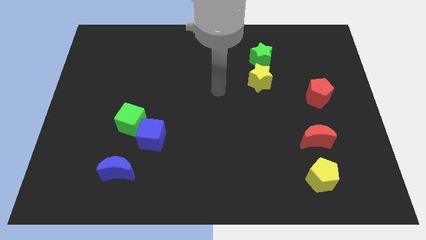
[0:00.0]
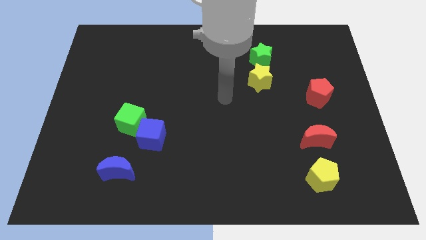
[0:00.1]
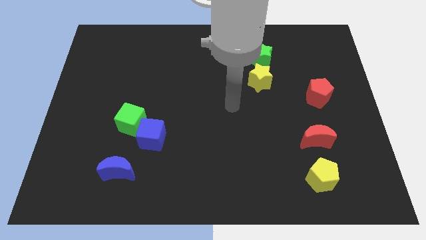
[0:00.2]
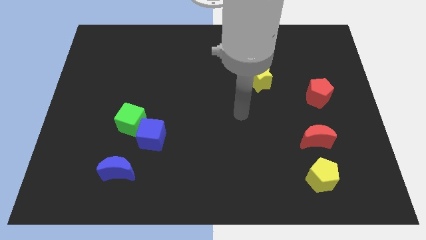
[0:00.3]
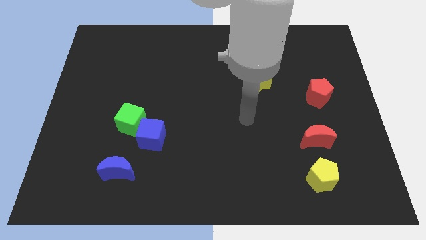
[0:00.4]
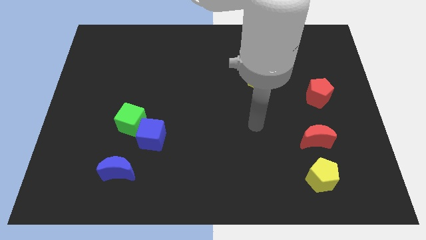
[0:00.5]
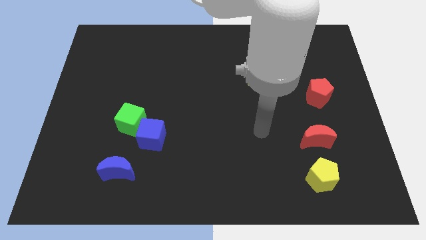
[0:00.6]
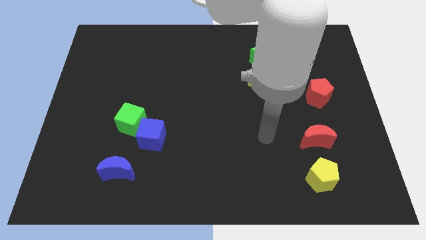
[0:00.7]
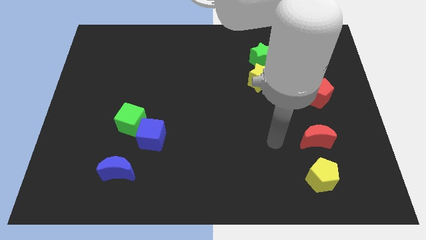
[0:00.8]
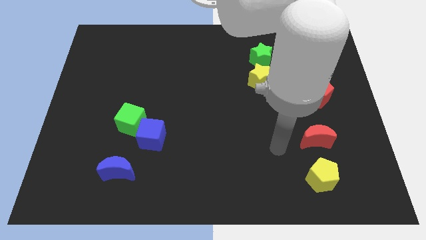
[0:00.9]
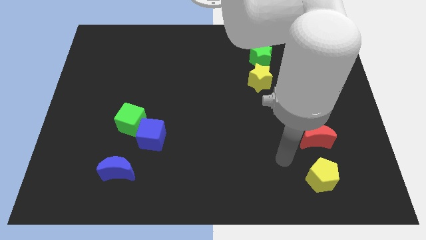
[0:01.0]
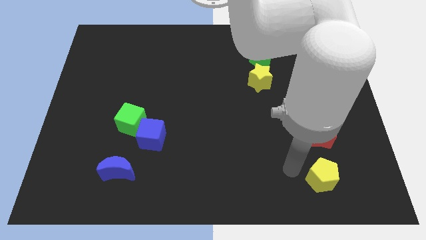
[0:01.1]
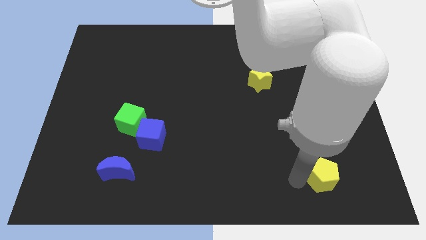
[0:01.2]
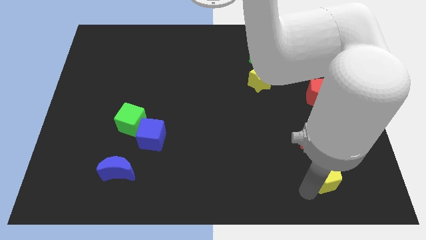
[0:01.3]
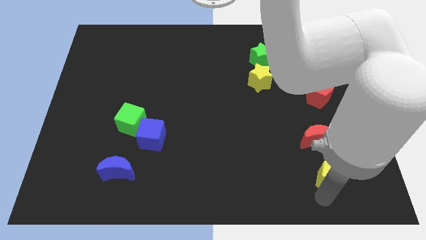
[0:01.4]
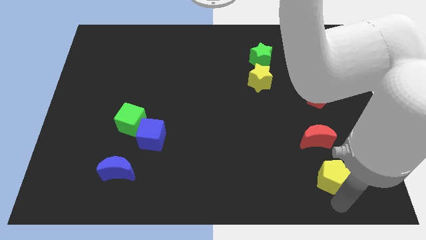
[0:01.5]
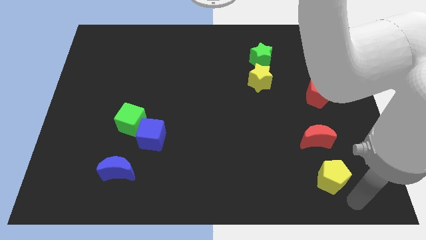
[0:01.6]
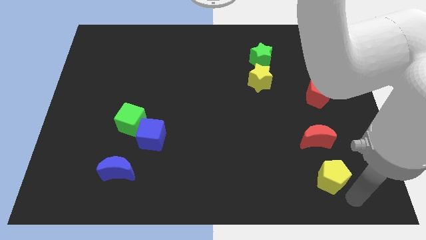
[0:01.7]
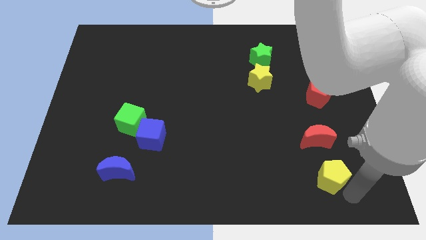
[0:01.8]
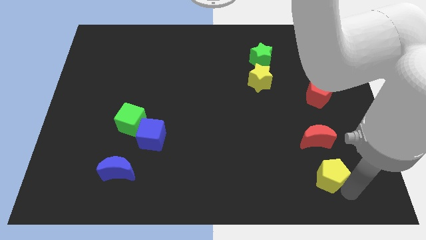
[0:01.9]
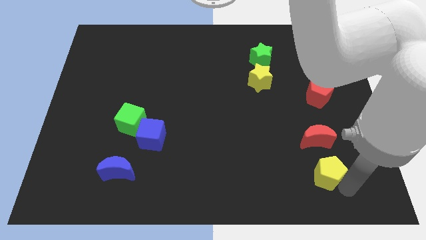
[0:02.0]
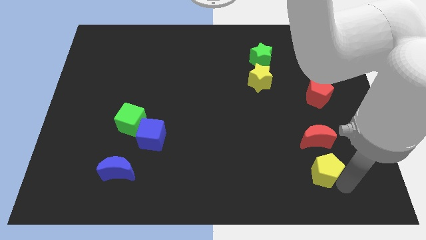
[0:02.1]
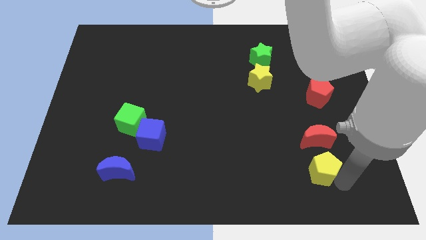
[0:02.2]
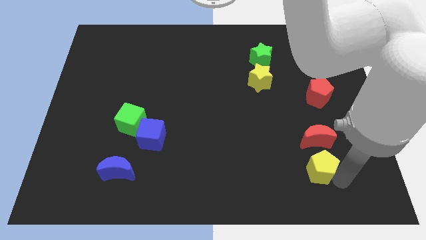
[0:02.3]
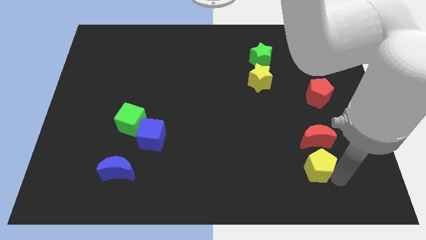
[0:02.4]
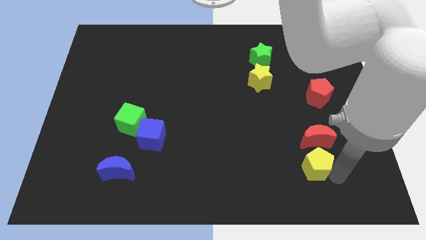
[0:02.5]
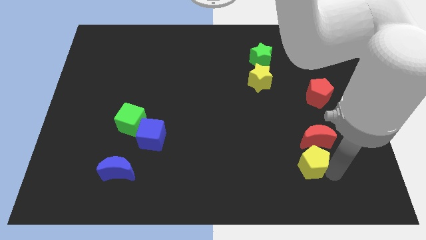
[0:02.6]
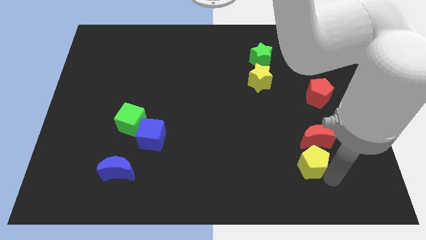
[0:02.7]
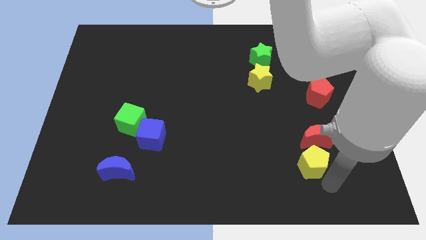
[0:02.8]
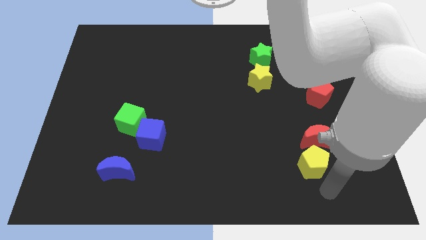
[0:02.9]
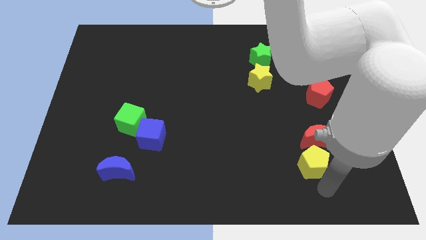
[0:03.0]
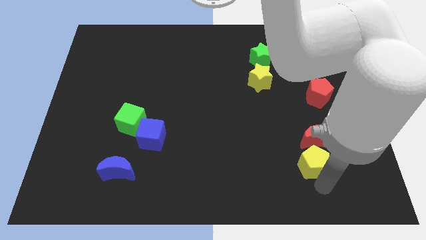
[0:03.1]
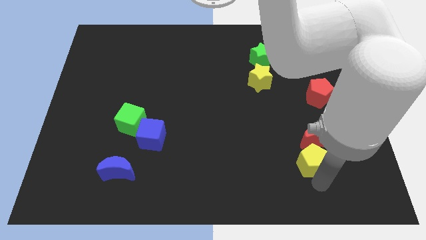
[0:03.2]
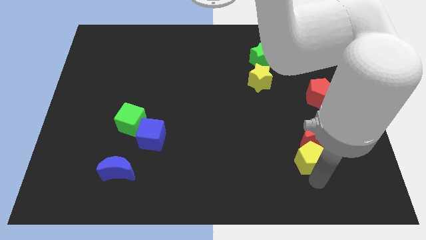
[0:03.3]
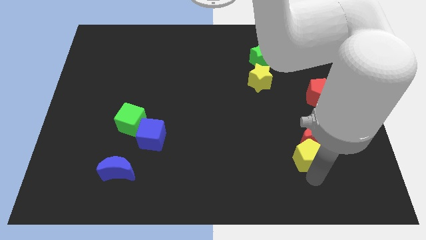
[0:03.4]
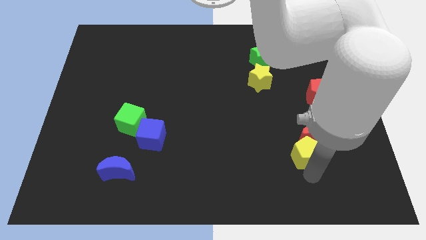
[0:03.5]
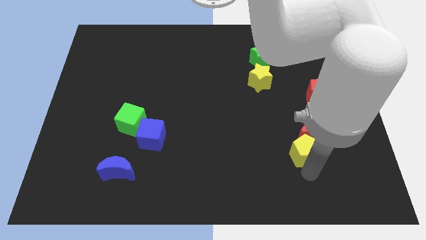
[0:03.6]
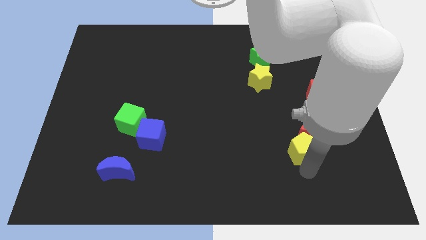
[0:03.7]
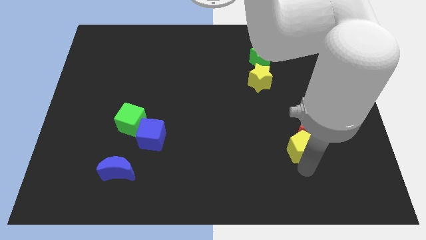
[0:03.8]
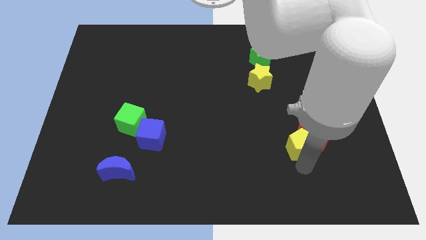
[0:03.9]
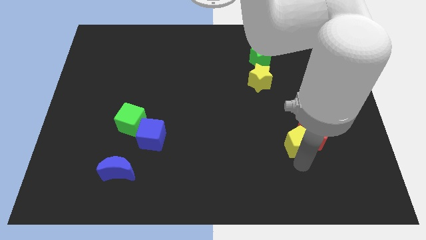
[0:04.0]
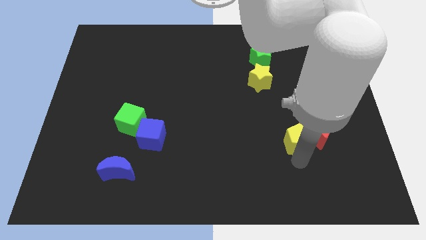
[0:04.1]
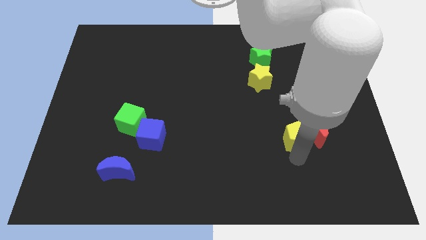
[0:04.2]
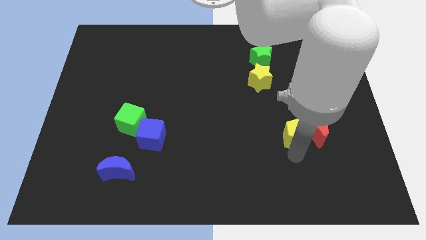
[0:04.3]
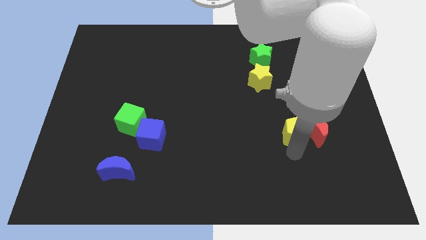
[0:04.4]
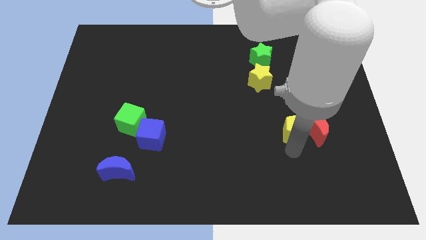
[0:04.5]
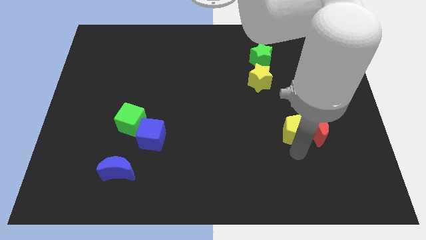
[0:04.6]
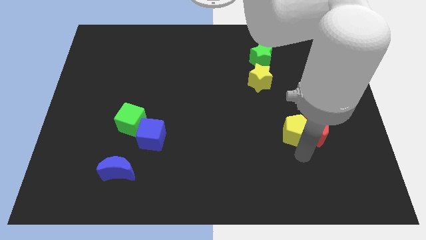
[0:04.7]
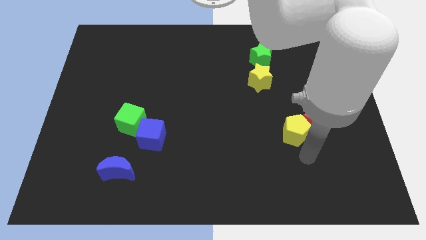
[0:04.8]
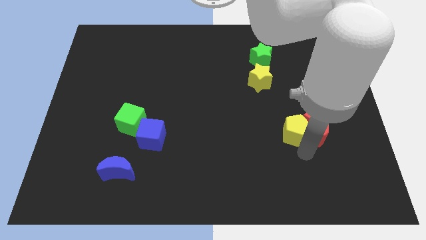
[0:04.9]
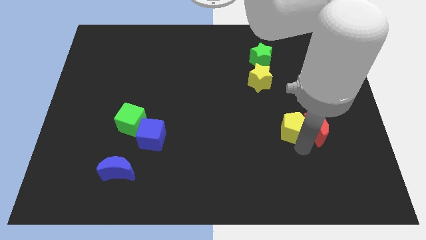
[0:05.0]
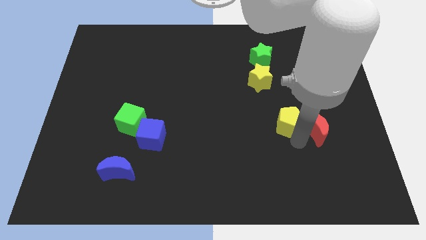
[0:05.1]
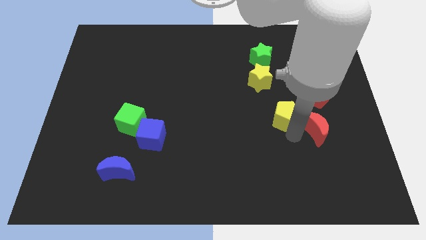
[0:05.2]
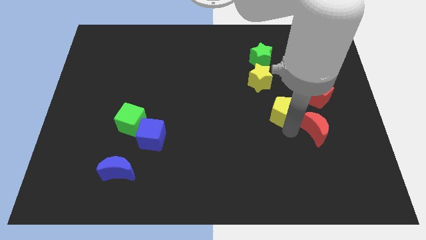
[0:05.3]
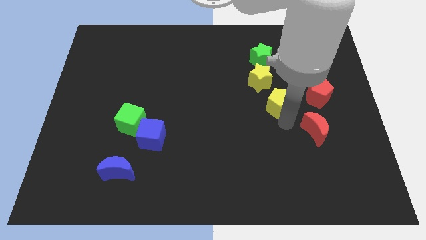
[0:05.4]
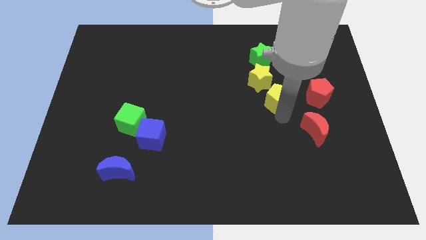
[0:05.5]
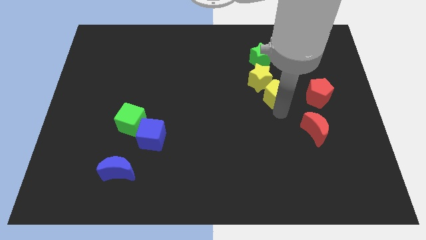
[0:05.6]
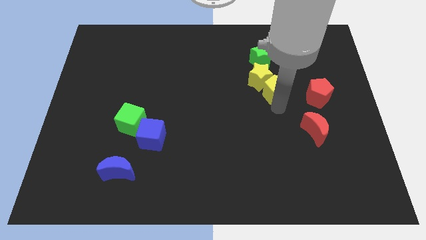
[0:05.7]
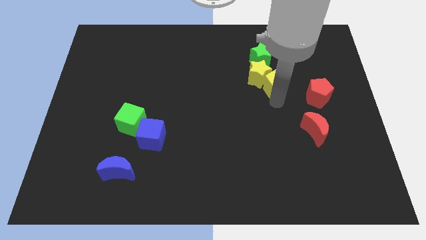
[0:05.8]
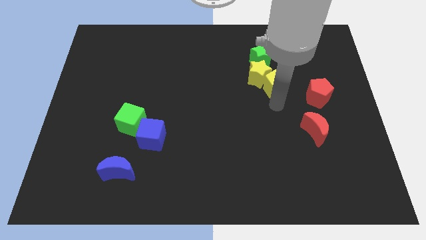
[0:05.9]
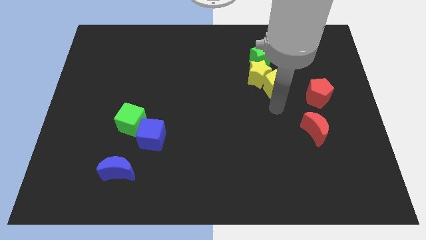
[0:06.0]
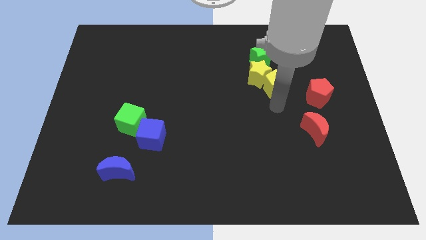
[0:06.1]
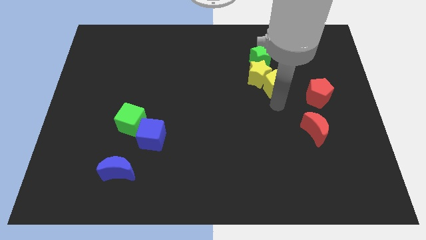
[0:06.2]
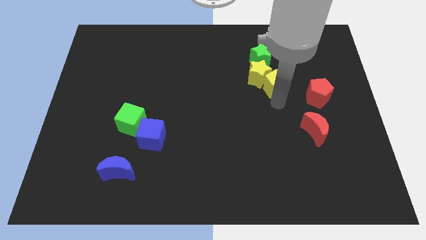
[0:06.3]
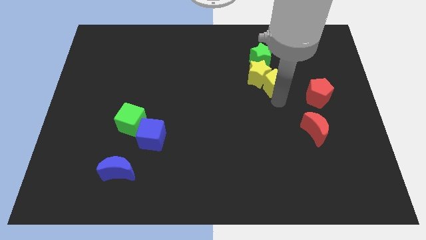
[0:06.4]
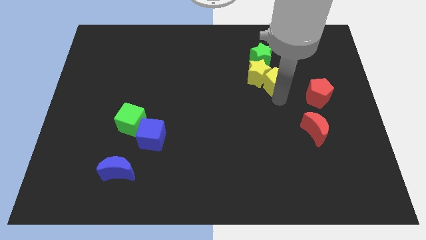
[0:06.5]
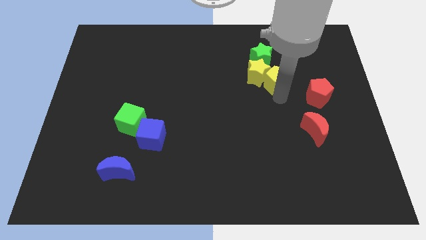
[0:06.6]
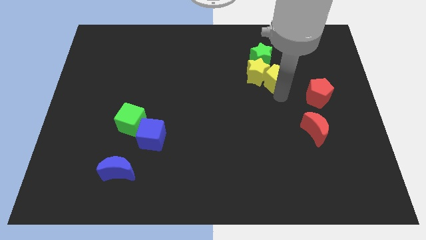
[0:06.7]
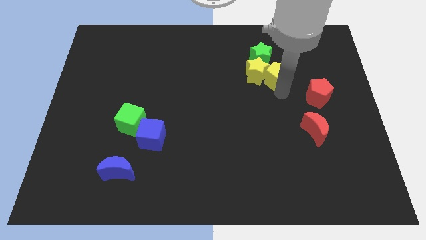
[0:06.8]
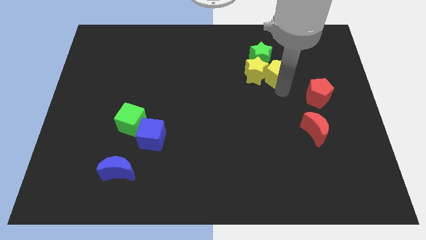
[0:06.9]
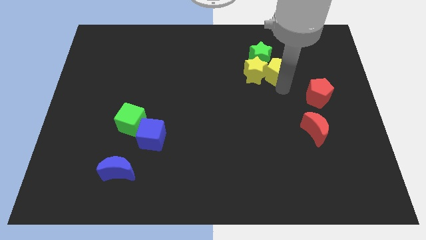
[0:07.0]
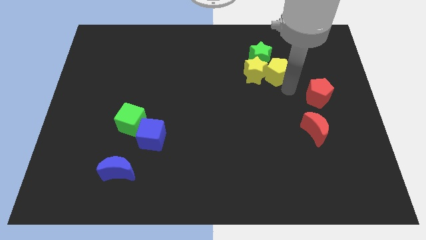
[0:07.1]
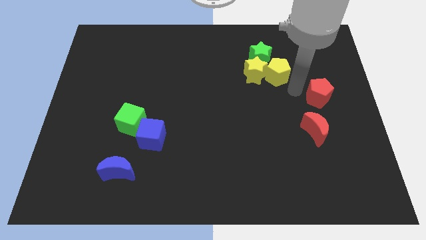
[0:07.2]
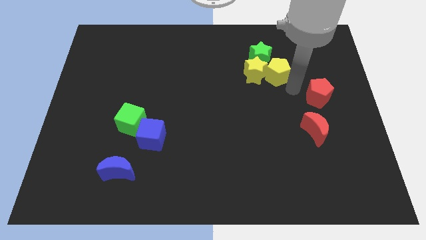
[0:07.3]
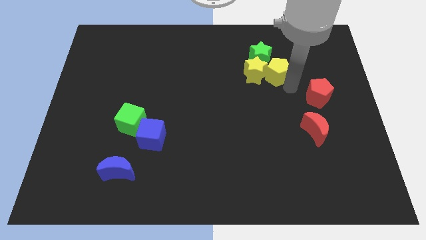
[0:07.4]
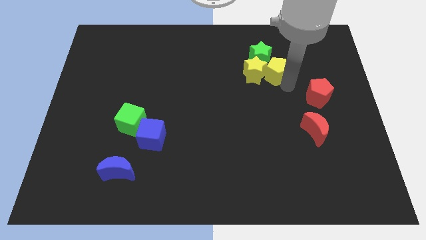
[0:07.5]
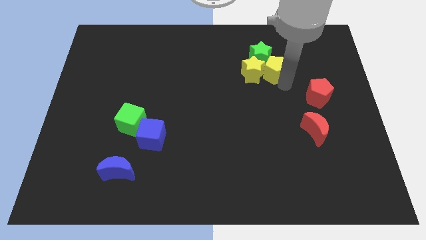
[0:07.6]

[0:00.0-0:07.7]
slide the yellow pentagon next to the green star
